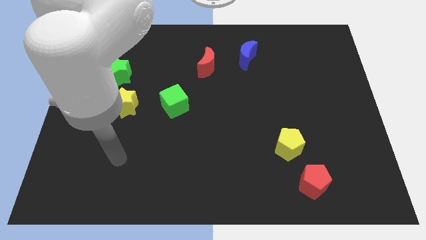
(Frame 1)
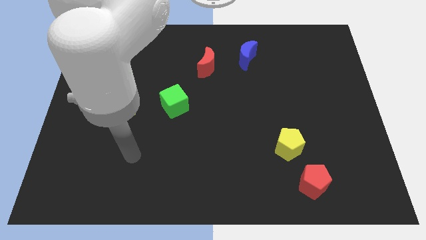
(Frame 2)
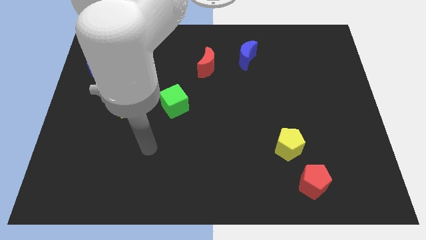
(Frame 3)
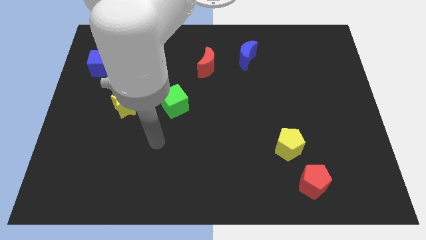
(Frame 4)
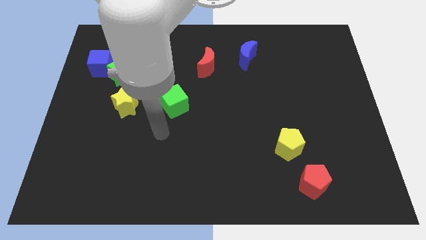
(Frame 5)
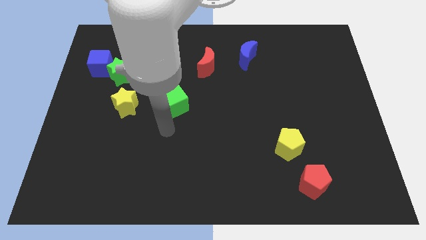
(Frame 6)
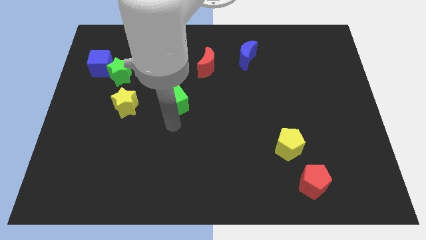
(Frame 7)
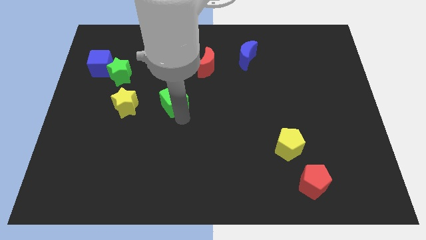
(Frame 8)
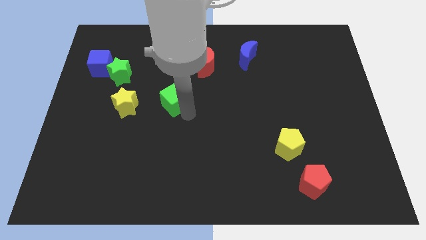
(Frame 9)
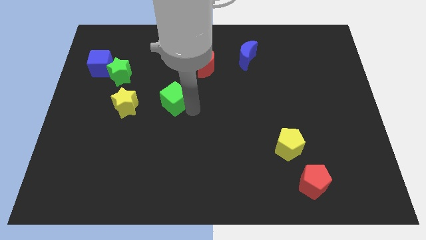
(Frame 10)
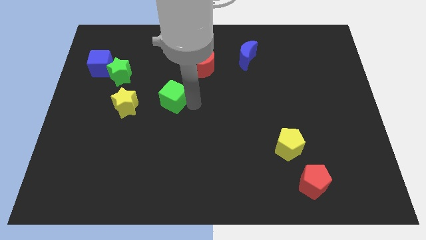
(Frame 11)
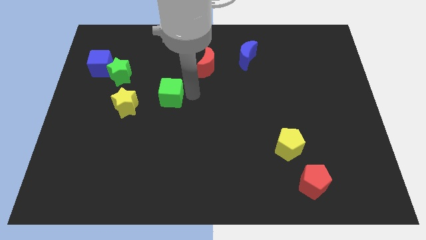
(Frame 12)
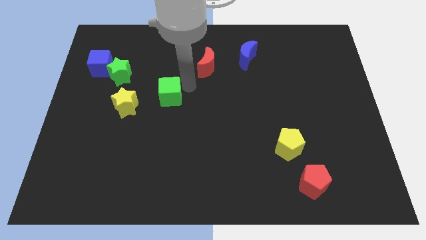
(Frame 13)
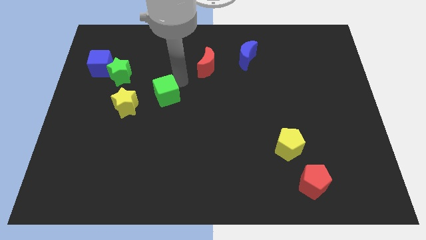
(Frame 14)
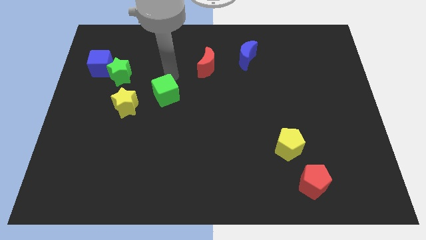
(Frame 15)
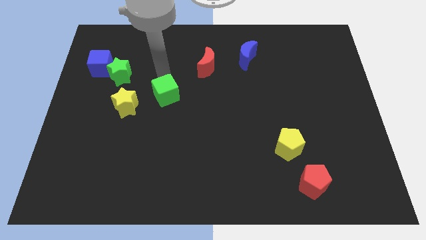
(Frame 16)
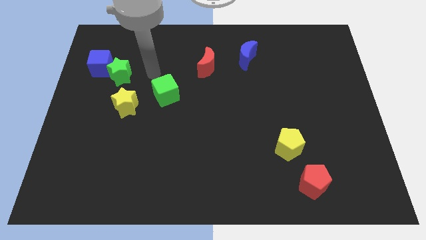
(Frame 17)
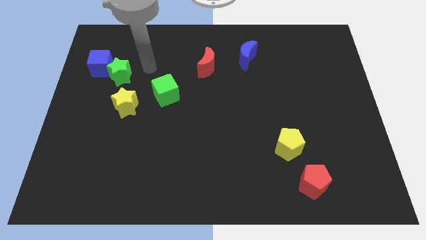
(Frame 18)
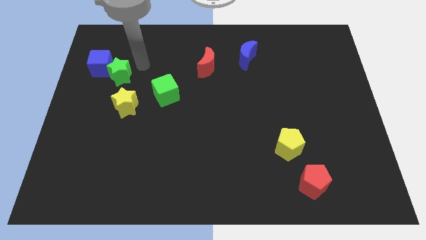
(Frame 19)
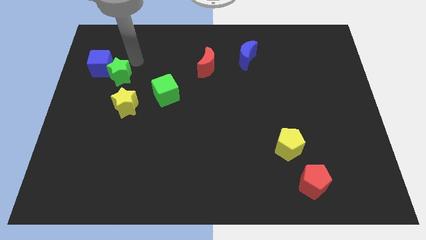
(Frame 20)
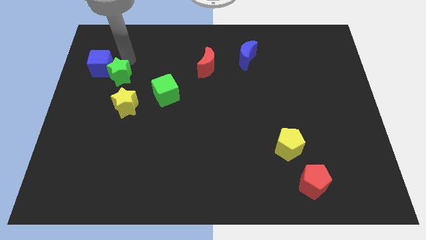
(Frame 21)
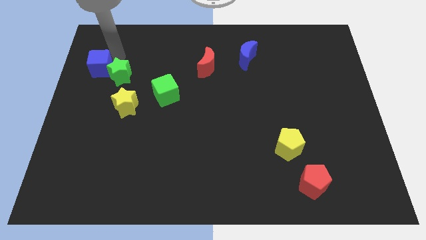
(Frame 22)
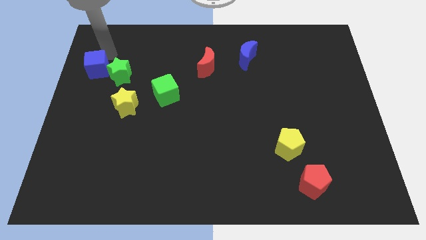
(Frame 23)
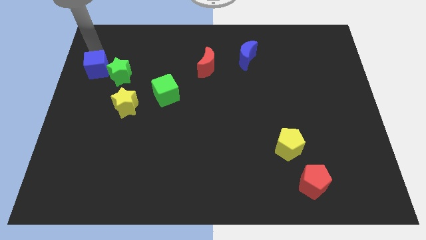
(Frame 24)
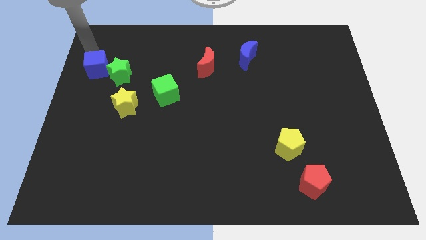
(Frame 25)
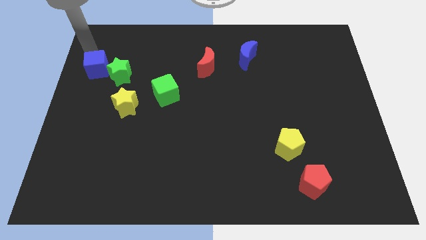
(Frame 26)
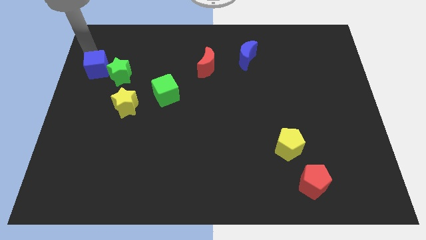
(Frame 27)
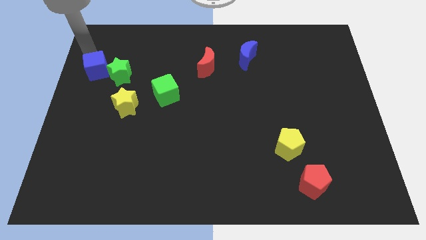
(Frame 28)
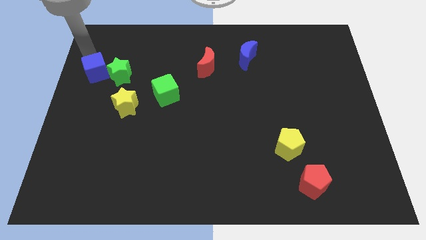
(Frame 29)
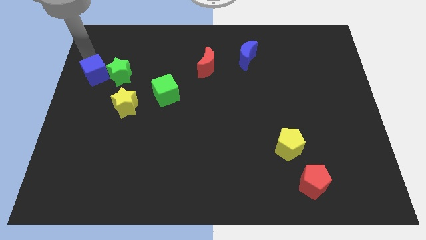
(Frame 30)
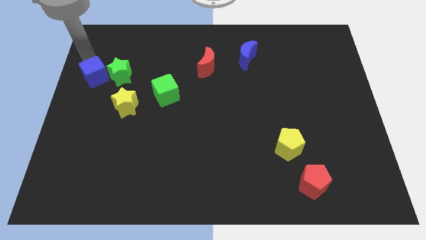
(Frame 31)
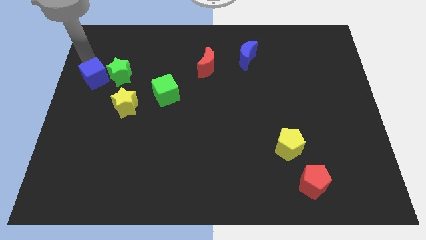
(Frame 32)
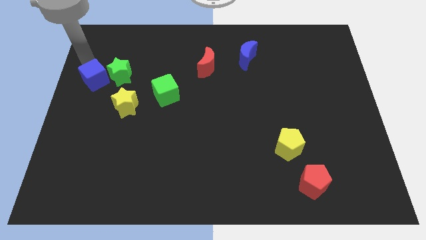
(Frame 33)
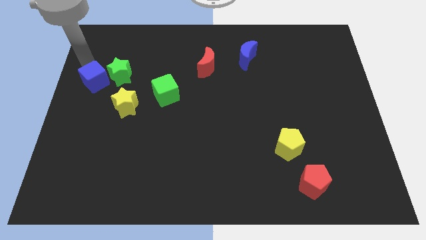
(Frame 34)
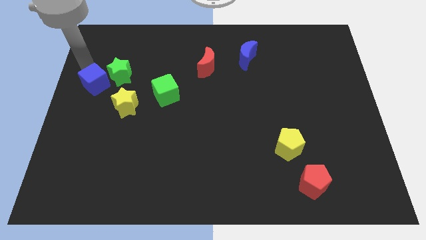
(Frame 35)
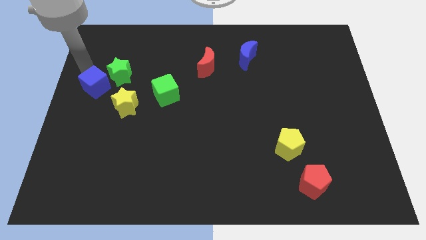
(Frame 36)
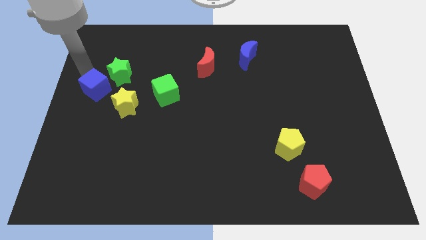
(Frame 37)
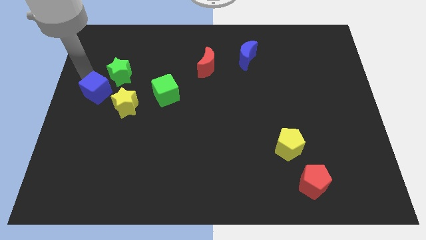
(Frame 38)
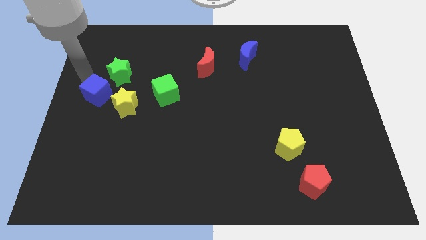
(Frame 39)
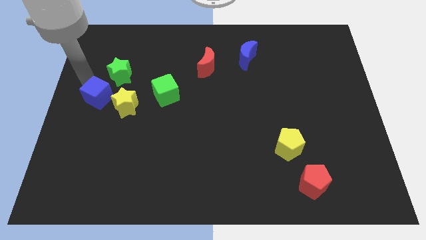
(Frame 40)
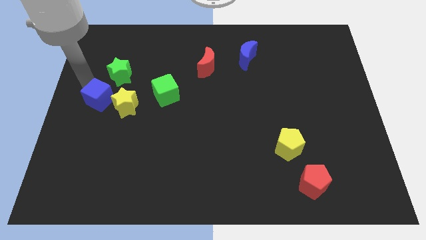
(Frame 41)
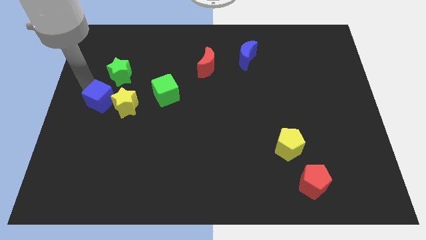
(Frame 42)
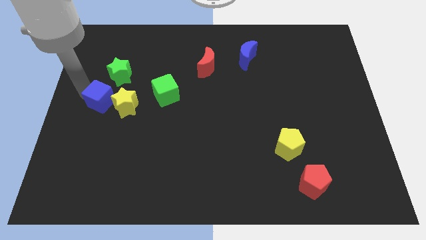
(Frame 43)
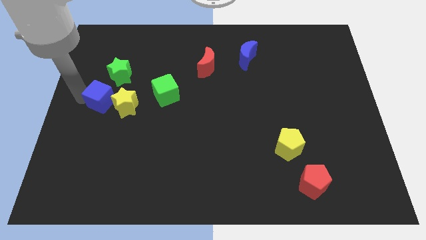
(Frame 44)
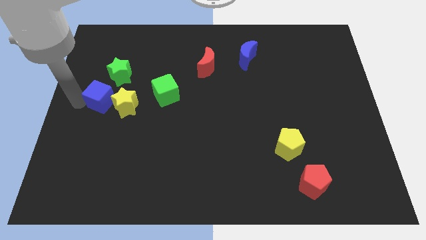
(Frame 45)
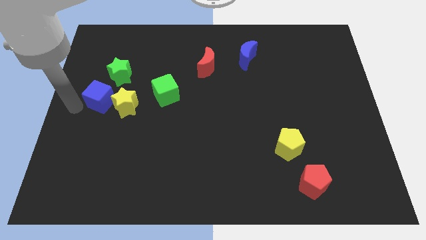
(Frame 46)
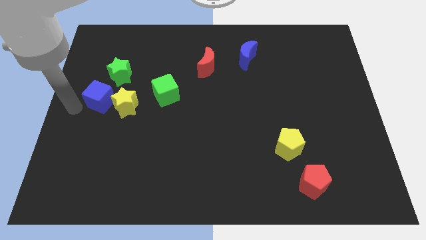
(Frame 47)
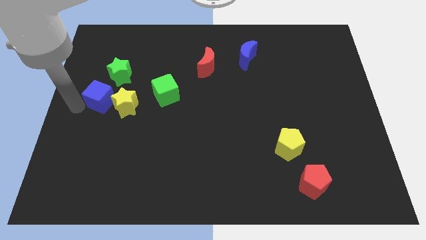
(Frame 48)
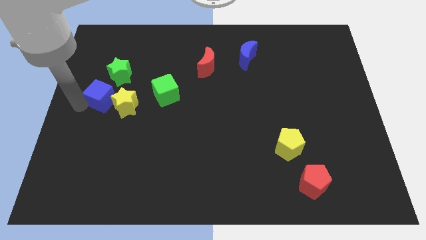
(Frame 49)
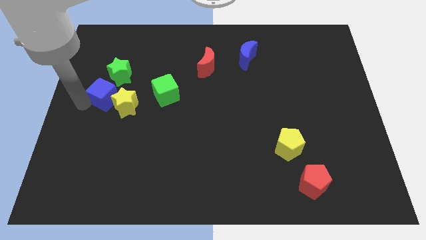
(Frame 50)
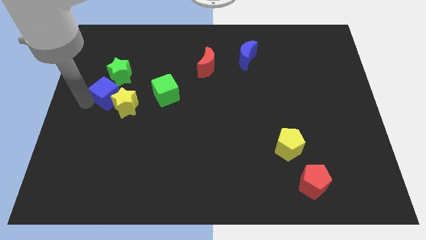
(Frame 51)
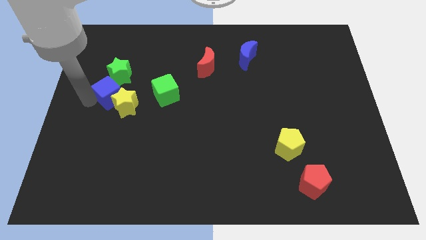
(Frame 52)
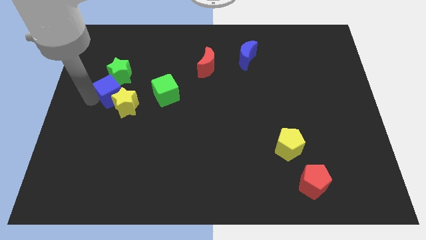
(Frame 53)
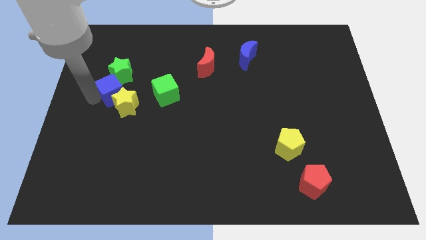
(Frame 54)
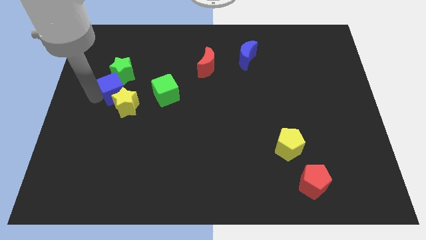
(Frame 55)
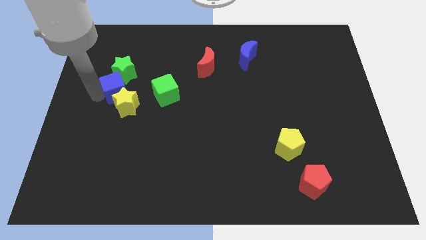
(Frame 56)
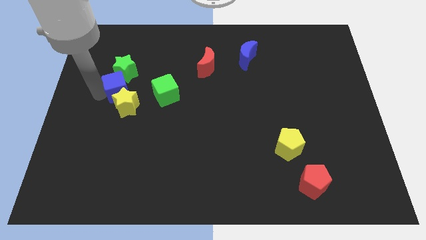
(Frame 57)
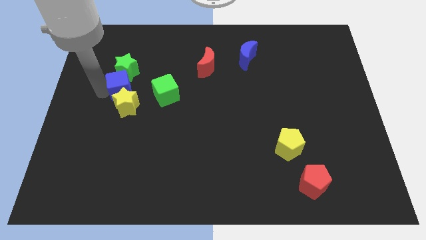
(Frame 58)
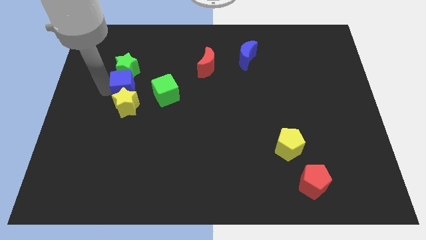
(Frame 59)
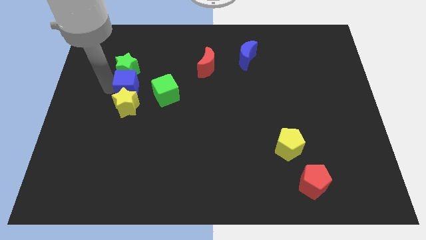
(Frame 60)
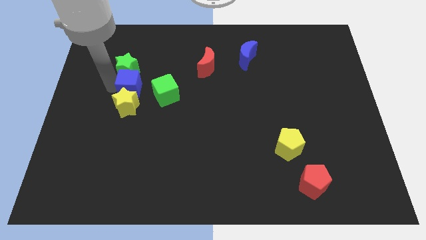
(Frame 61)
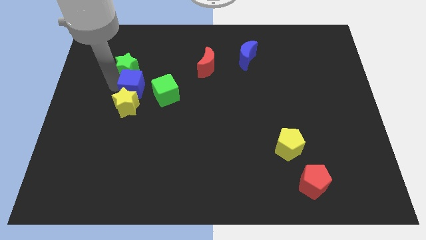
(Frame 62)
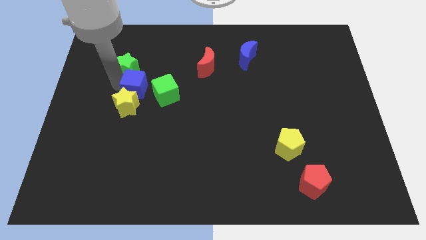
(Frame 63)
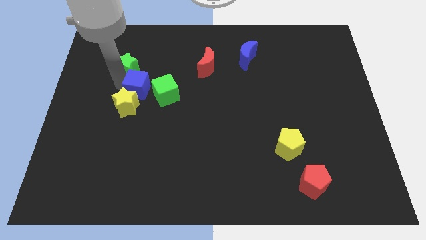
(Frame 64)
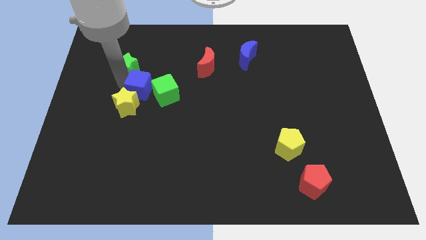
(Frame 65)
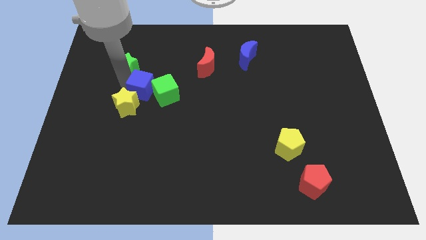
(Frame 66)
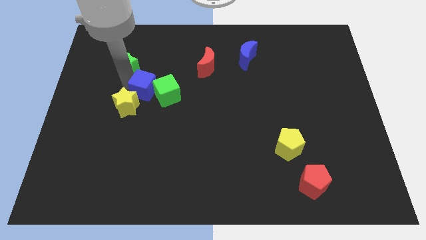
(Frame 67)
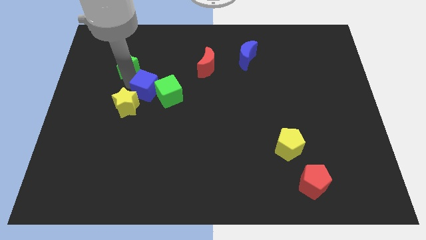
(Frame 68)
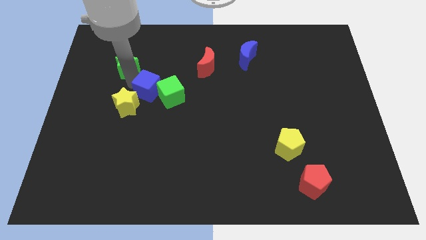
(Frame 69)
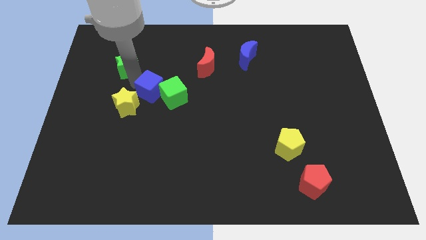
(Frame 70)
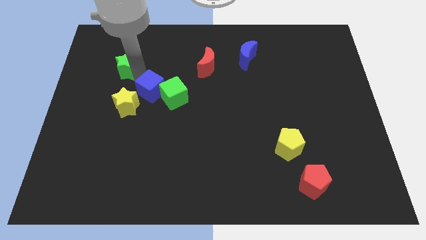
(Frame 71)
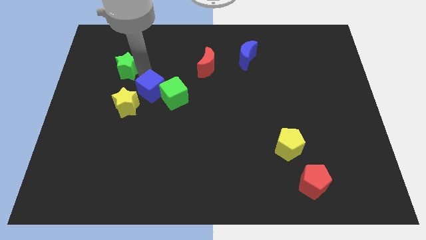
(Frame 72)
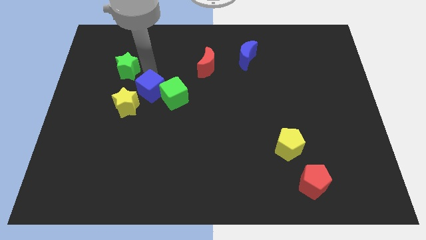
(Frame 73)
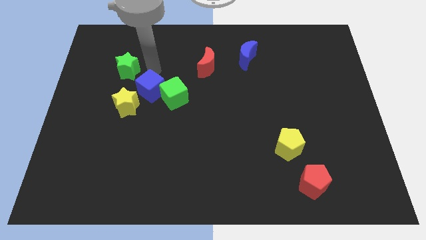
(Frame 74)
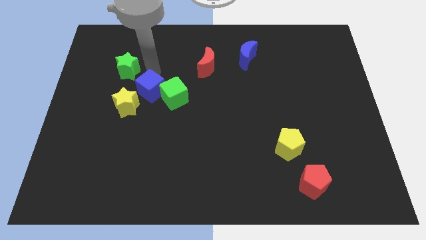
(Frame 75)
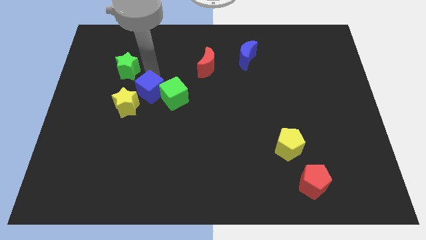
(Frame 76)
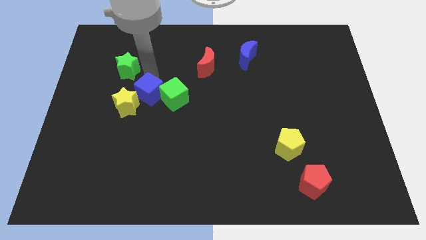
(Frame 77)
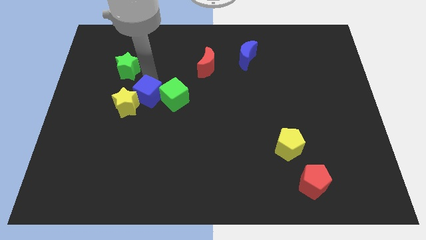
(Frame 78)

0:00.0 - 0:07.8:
move the blue cube diagonally down and to the left of the green cube
